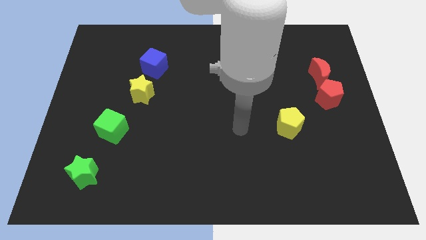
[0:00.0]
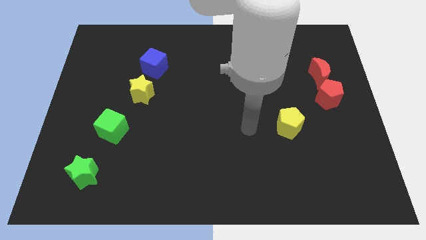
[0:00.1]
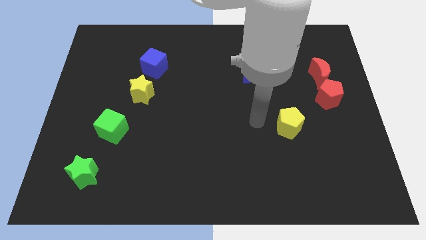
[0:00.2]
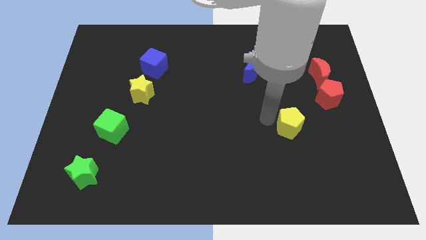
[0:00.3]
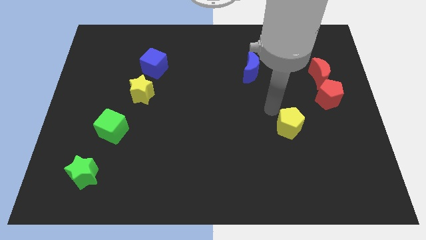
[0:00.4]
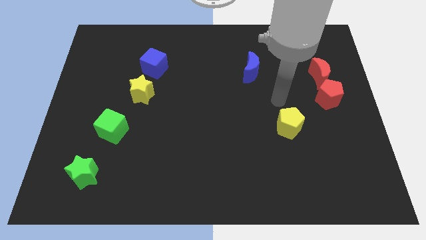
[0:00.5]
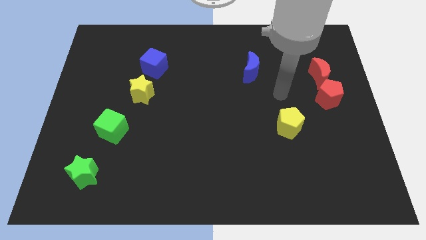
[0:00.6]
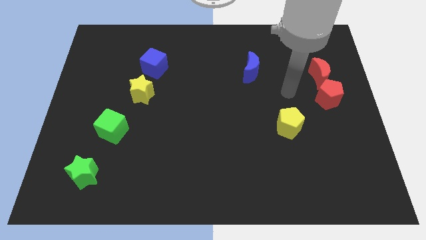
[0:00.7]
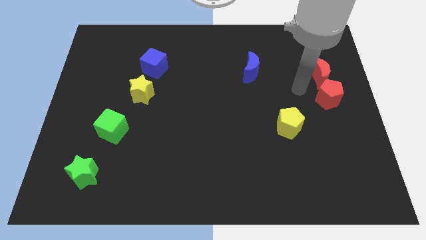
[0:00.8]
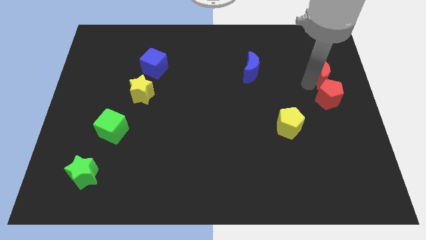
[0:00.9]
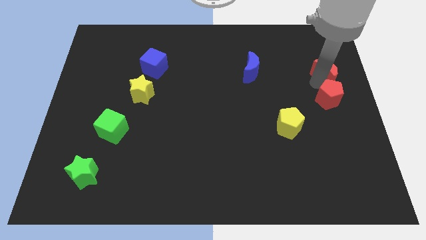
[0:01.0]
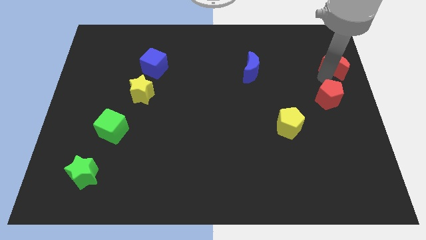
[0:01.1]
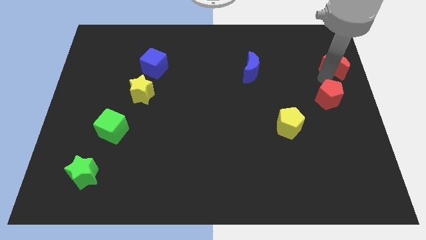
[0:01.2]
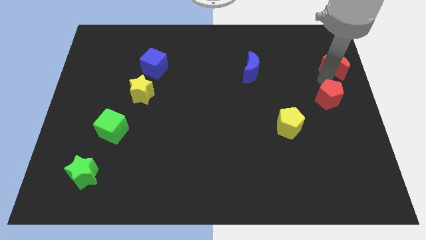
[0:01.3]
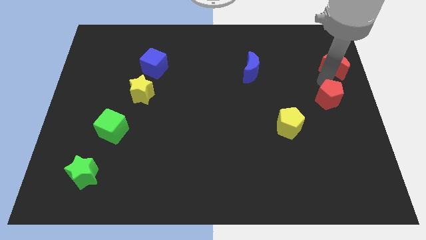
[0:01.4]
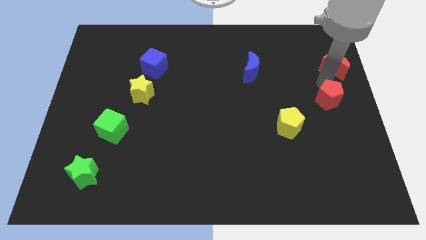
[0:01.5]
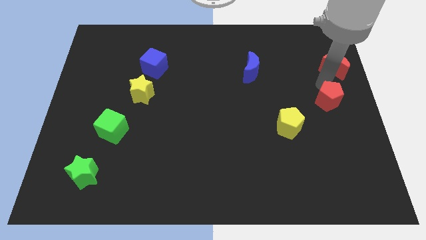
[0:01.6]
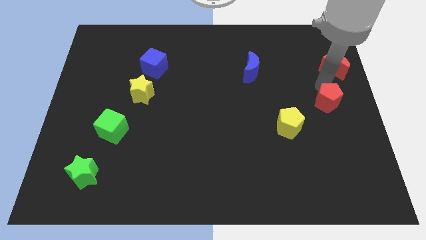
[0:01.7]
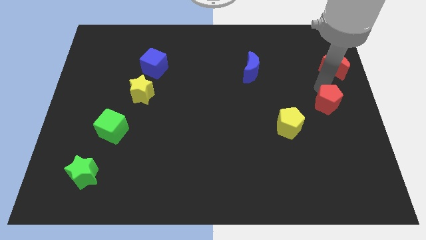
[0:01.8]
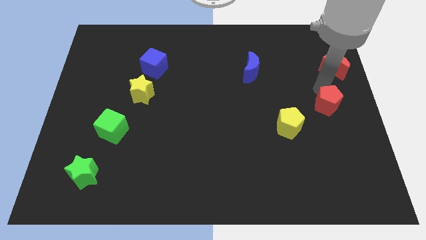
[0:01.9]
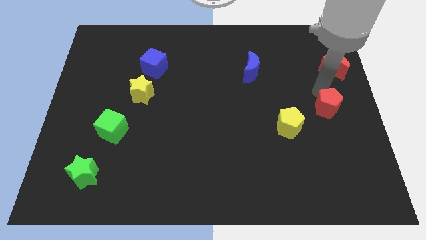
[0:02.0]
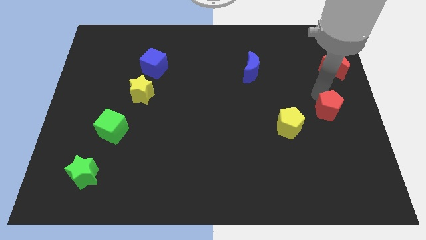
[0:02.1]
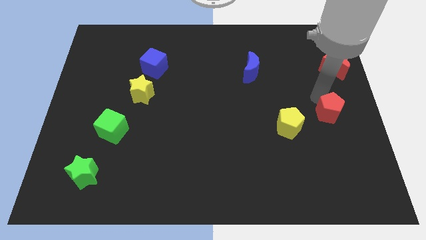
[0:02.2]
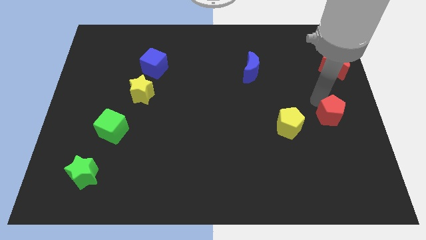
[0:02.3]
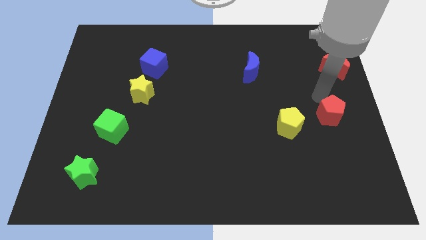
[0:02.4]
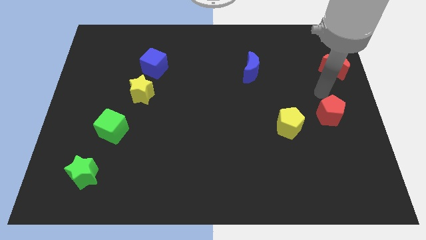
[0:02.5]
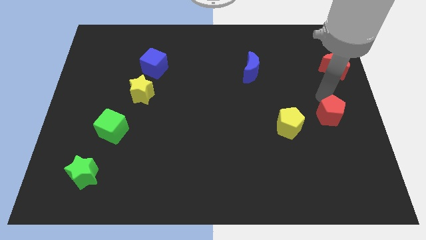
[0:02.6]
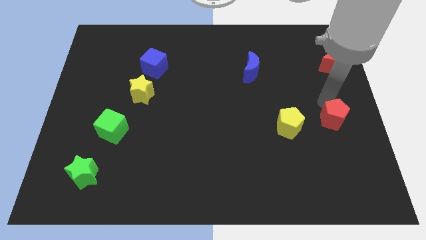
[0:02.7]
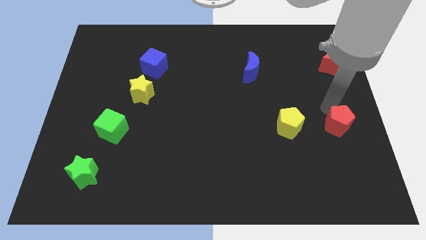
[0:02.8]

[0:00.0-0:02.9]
slide the red pentagon a little down

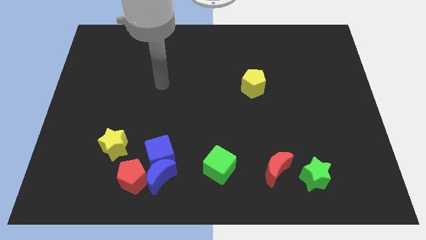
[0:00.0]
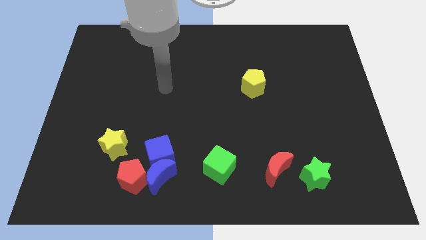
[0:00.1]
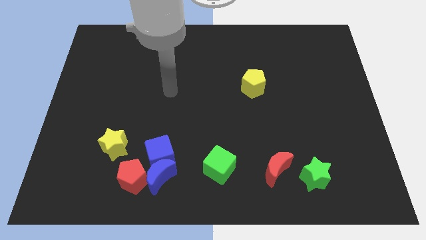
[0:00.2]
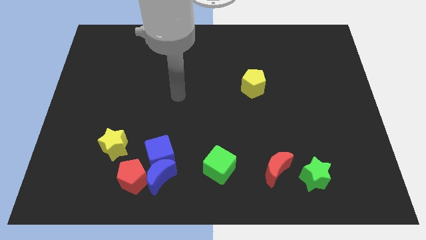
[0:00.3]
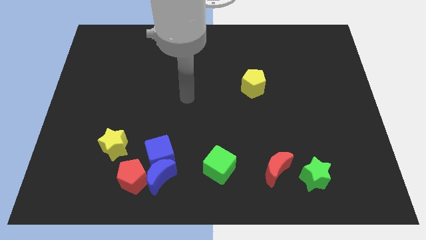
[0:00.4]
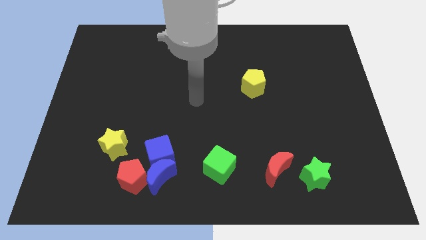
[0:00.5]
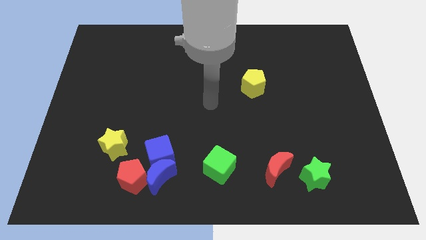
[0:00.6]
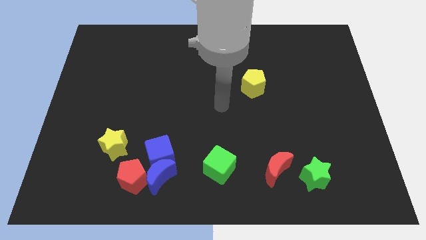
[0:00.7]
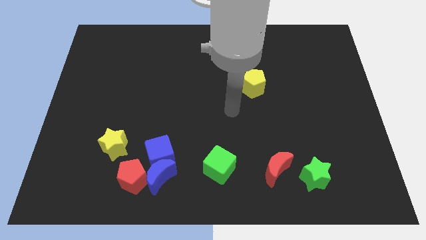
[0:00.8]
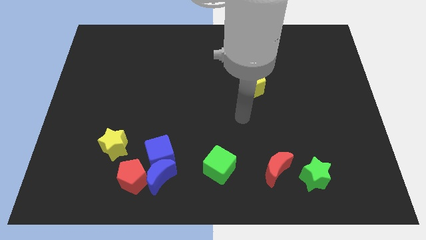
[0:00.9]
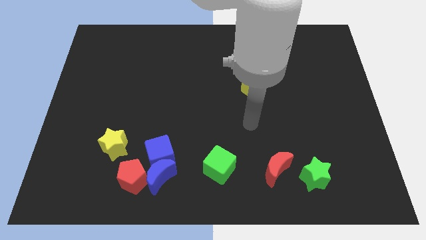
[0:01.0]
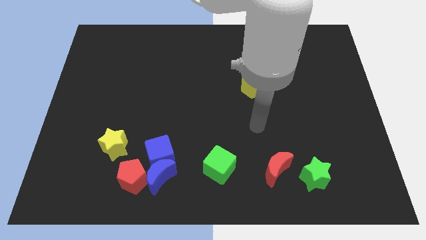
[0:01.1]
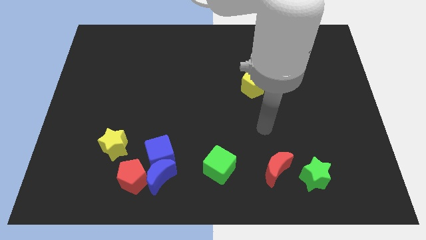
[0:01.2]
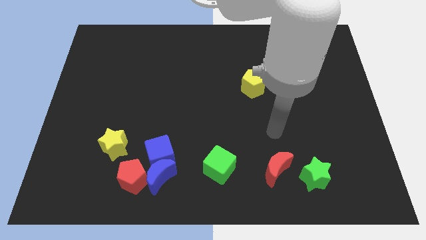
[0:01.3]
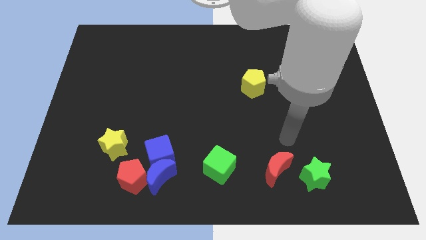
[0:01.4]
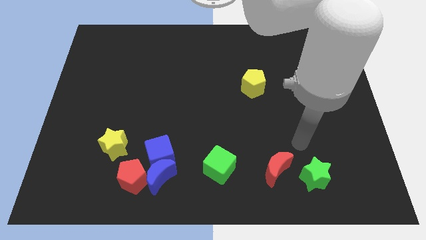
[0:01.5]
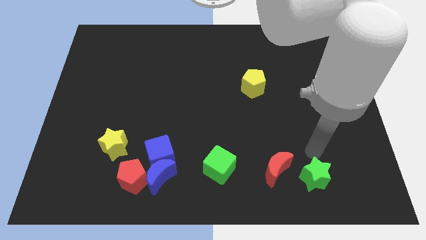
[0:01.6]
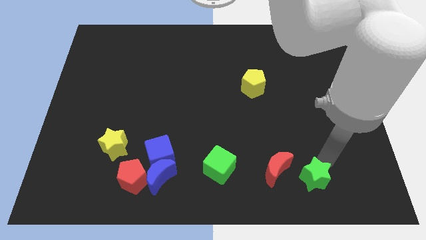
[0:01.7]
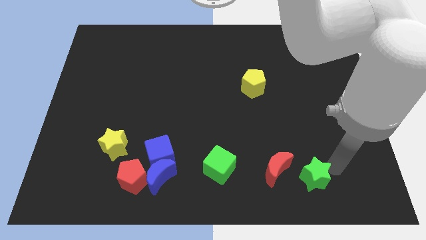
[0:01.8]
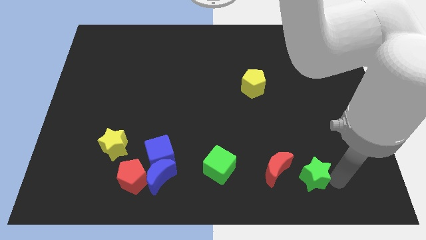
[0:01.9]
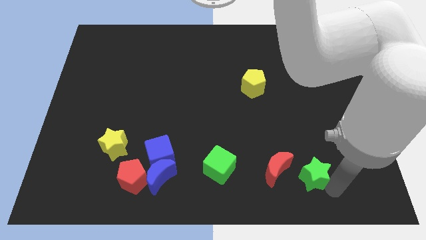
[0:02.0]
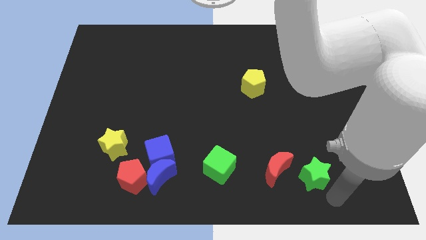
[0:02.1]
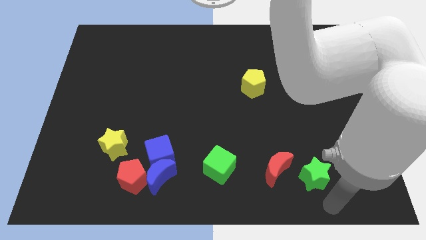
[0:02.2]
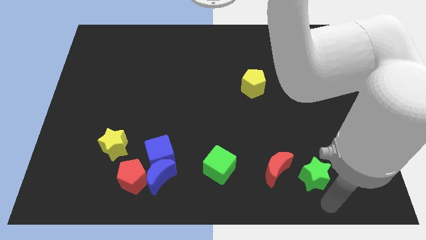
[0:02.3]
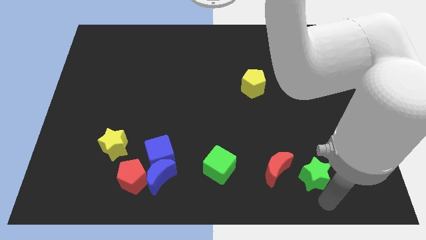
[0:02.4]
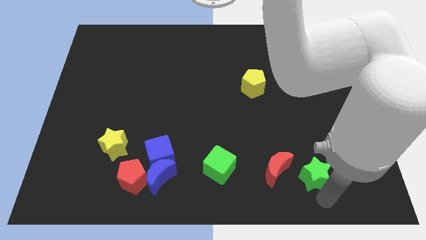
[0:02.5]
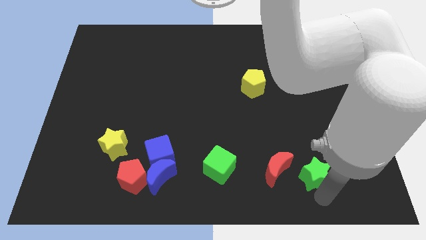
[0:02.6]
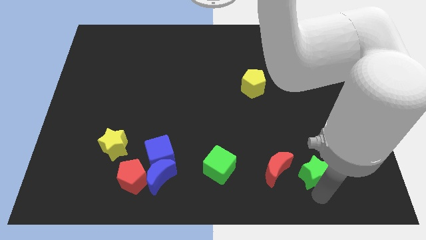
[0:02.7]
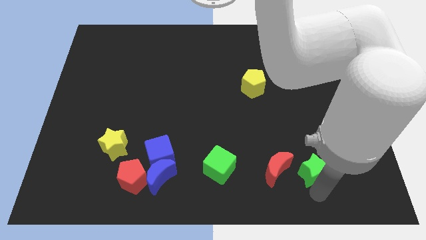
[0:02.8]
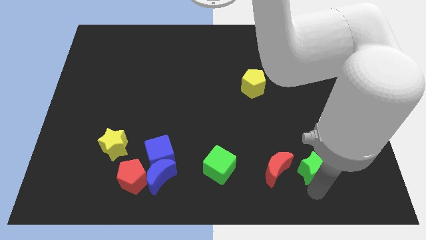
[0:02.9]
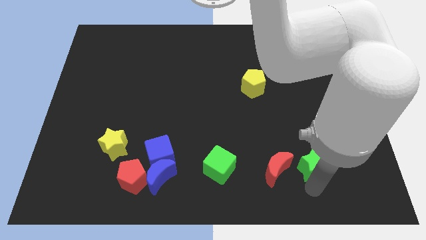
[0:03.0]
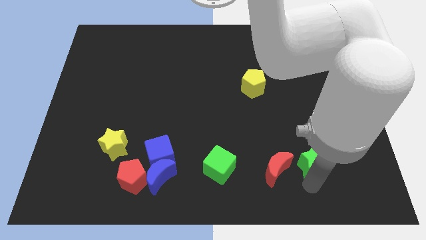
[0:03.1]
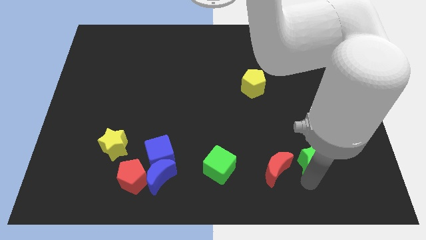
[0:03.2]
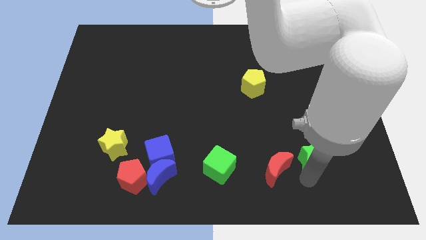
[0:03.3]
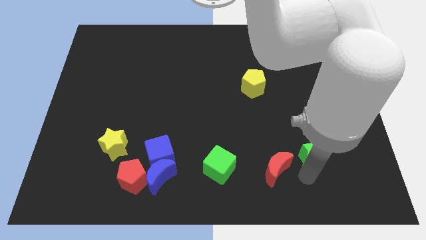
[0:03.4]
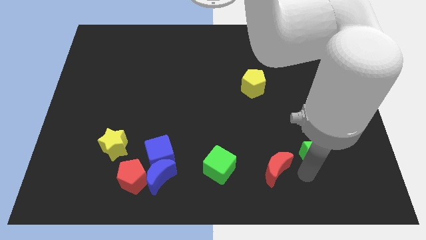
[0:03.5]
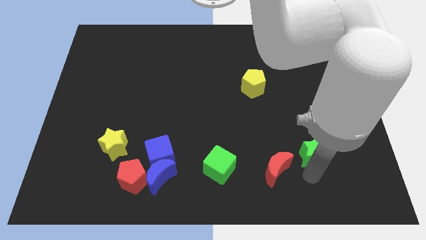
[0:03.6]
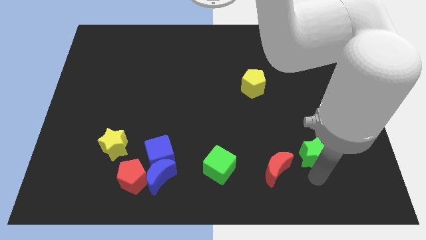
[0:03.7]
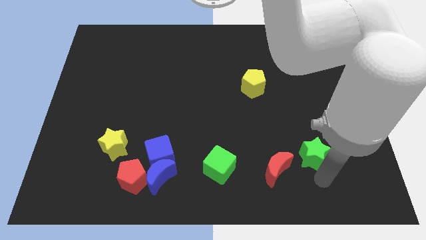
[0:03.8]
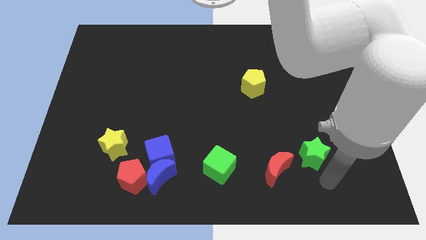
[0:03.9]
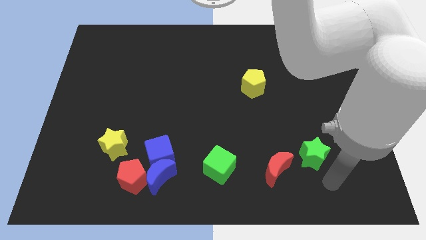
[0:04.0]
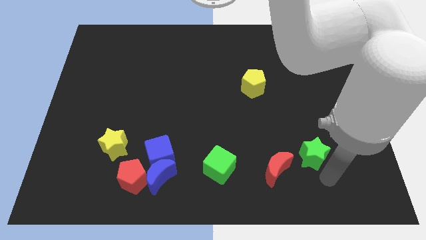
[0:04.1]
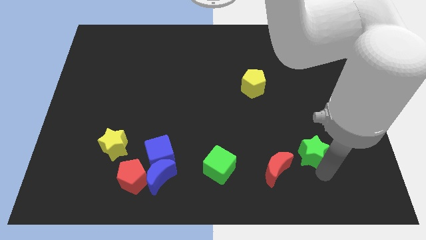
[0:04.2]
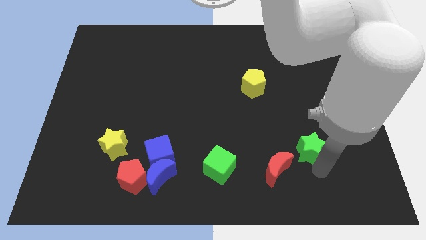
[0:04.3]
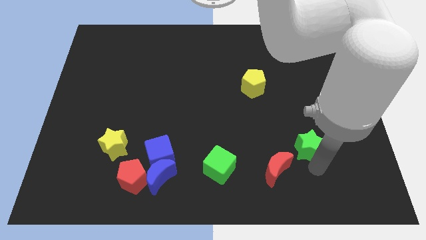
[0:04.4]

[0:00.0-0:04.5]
slightly move the green star up
